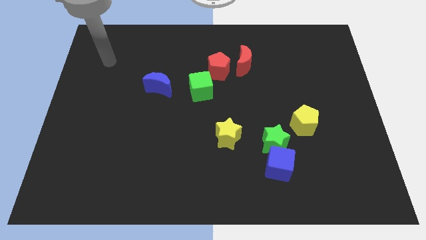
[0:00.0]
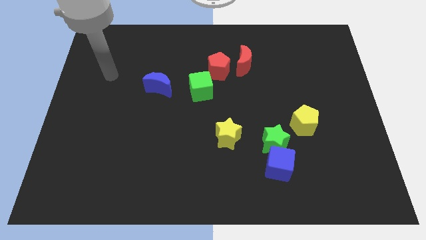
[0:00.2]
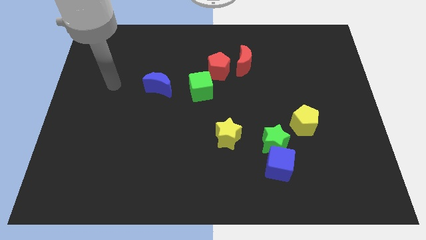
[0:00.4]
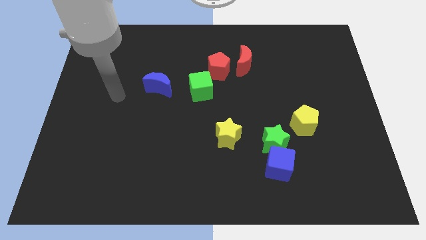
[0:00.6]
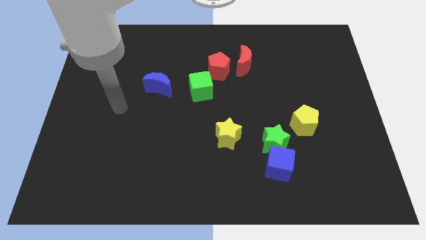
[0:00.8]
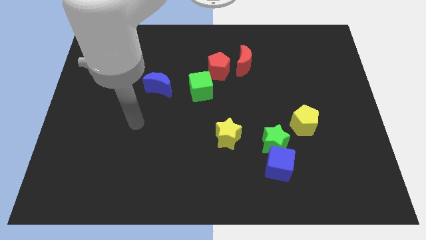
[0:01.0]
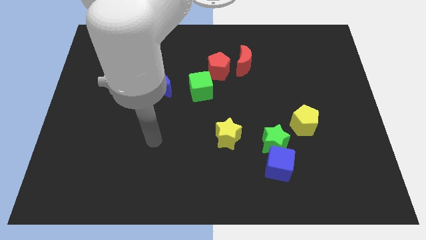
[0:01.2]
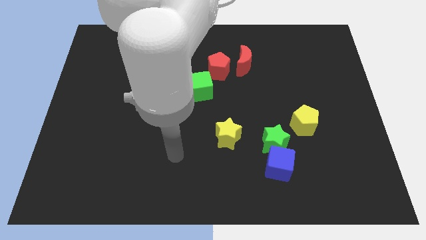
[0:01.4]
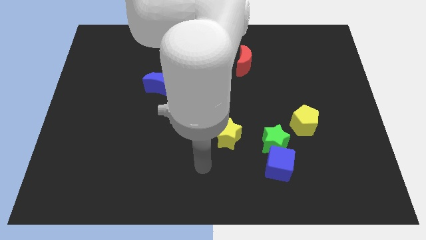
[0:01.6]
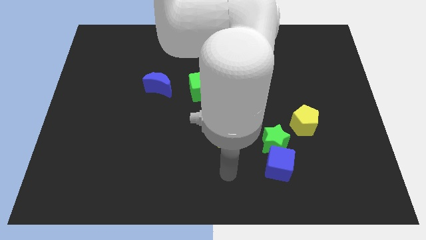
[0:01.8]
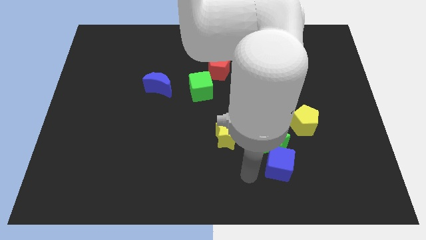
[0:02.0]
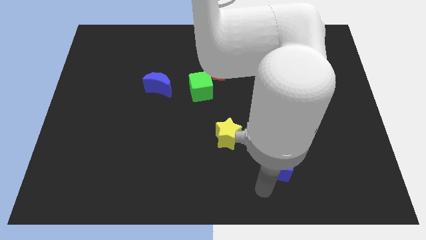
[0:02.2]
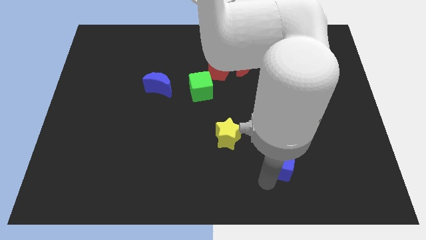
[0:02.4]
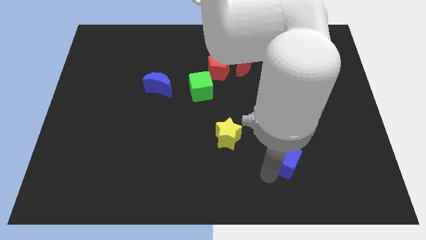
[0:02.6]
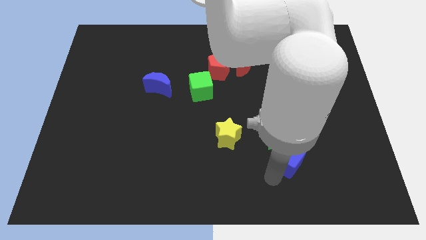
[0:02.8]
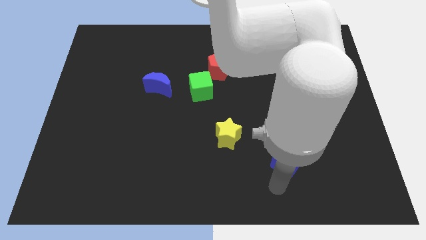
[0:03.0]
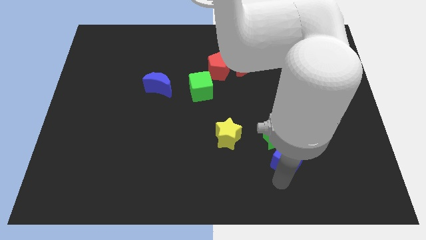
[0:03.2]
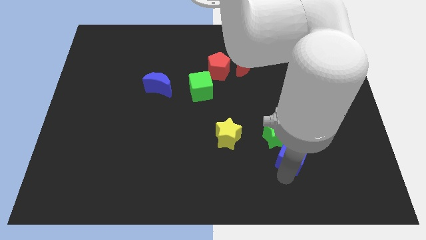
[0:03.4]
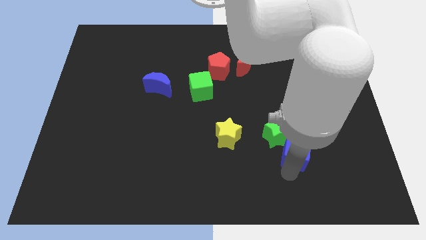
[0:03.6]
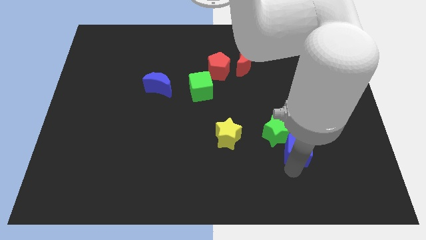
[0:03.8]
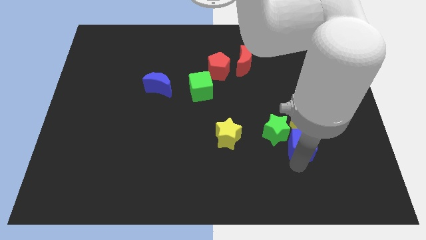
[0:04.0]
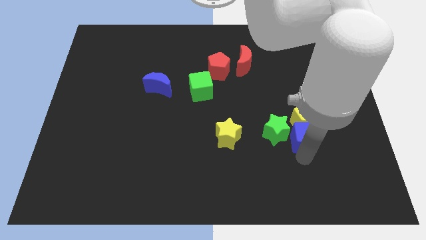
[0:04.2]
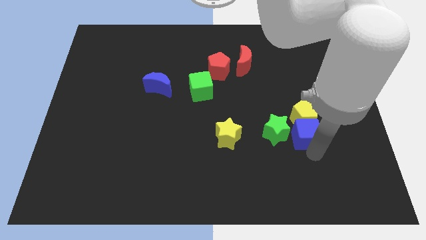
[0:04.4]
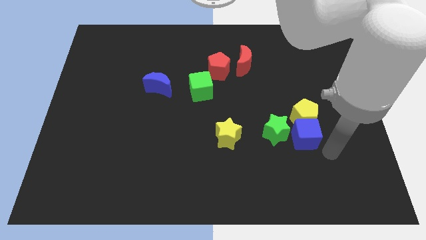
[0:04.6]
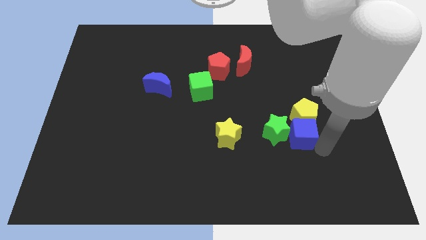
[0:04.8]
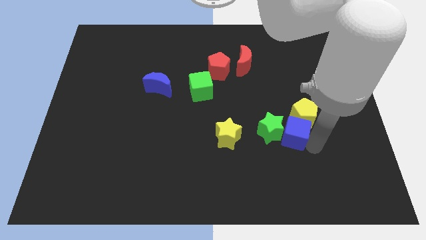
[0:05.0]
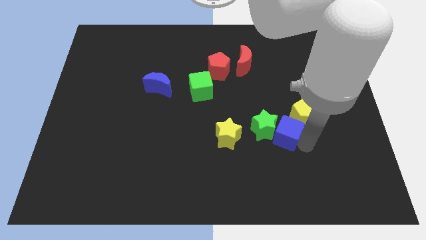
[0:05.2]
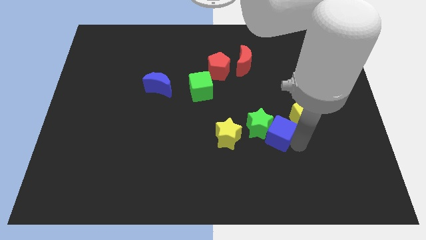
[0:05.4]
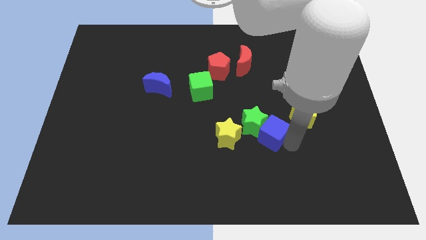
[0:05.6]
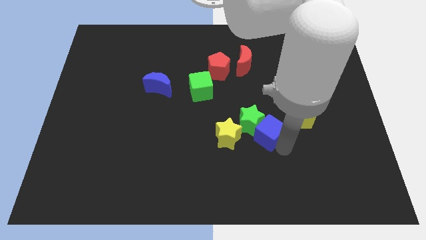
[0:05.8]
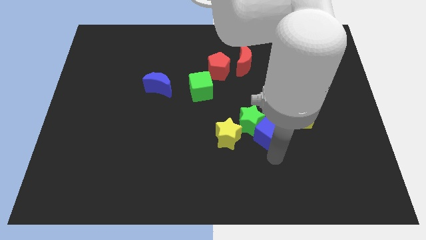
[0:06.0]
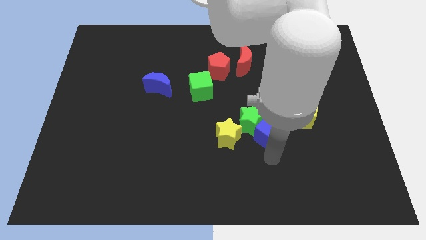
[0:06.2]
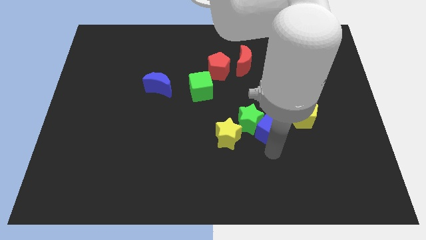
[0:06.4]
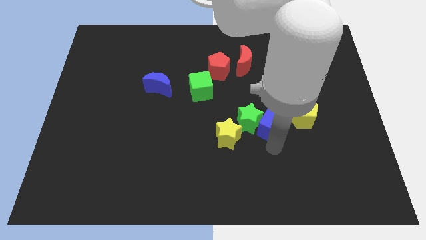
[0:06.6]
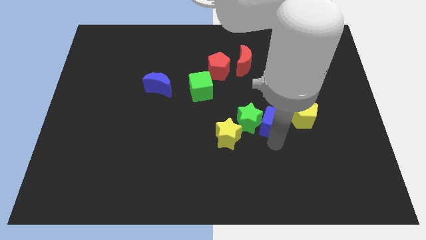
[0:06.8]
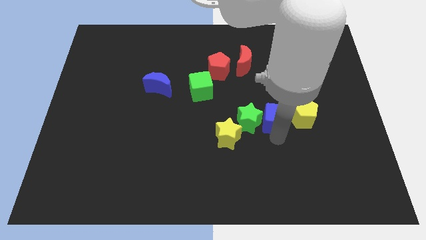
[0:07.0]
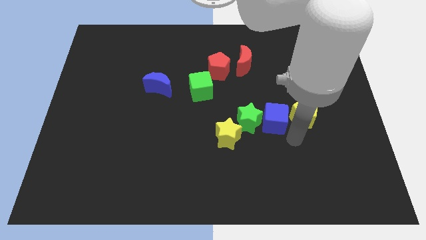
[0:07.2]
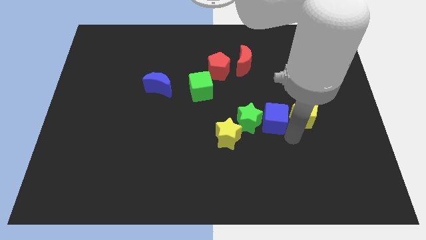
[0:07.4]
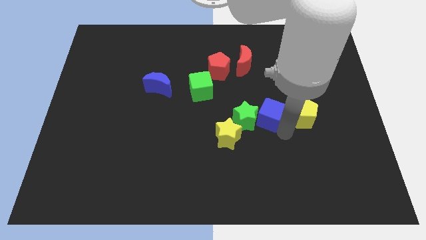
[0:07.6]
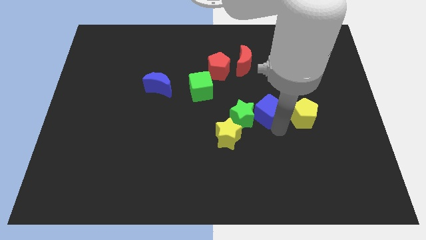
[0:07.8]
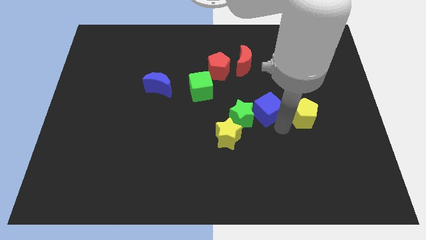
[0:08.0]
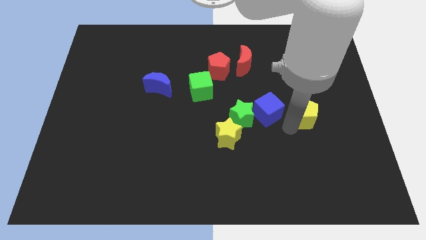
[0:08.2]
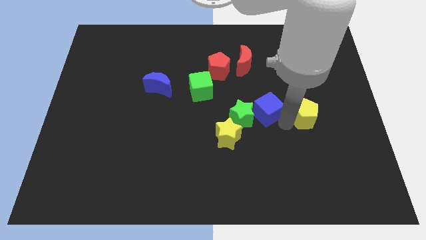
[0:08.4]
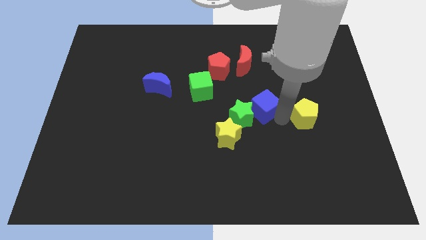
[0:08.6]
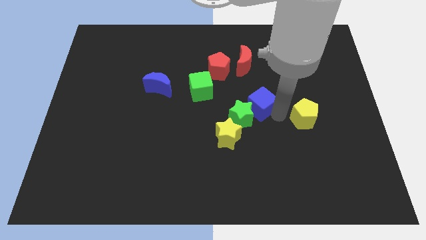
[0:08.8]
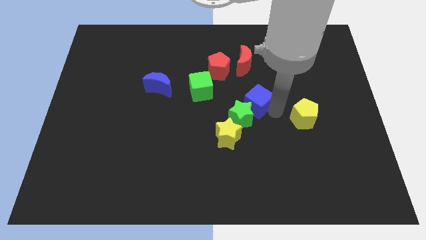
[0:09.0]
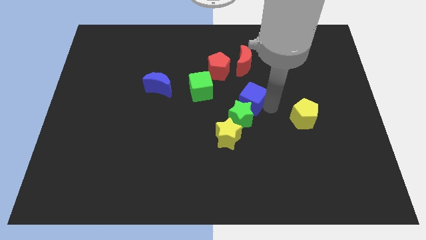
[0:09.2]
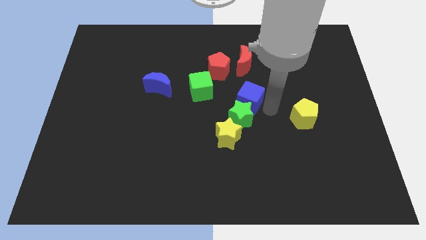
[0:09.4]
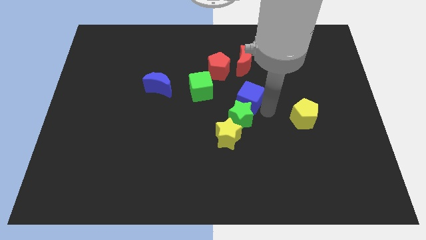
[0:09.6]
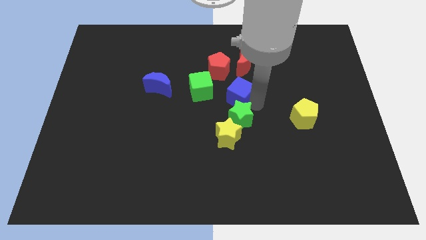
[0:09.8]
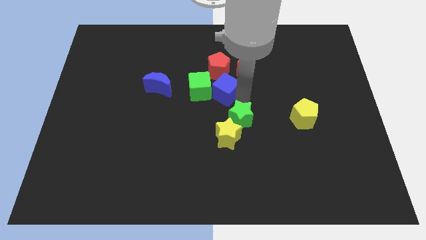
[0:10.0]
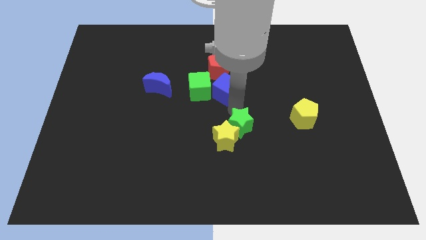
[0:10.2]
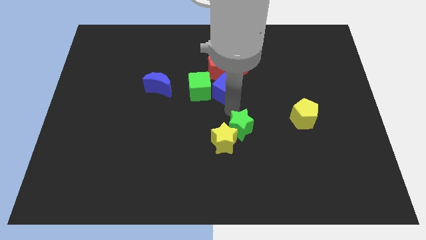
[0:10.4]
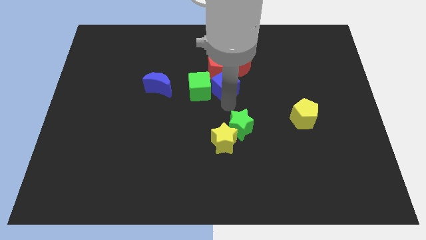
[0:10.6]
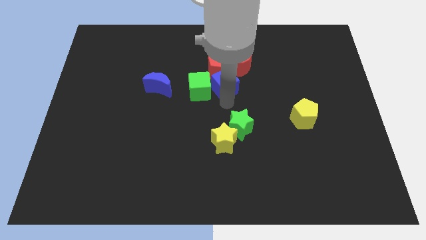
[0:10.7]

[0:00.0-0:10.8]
push the blue cube close to the red pentagon

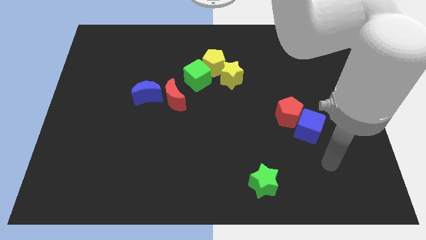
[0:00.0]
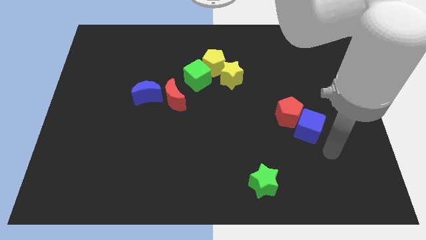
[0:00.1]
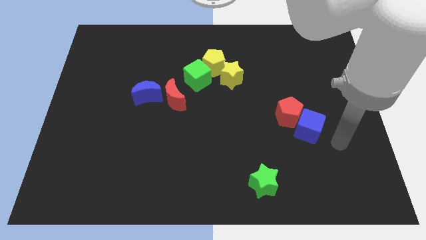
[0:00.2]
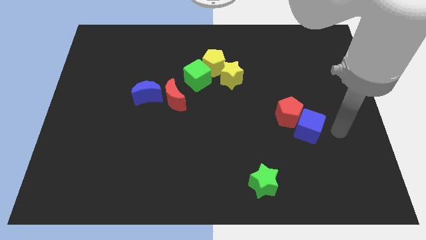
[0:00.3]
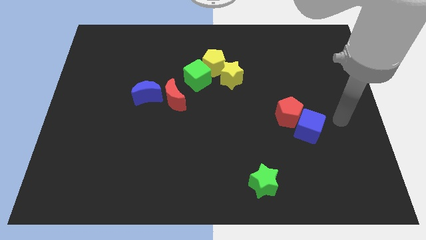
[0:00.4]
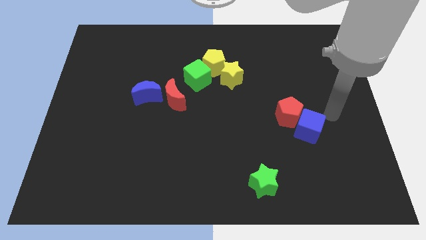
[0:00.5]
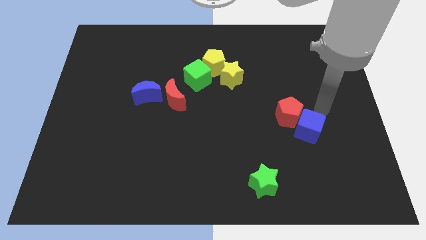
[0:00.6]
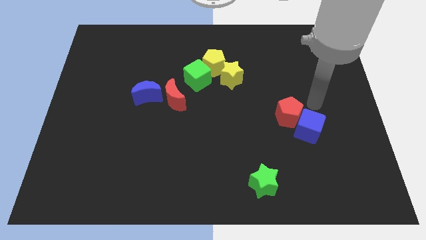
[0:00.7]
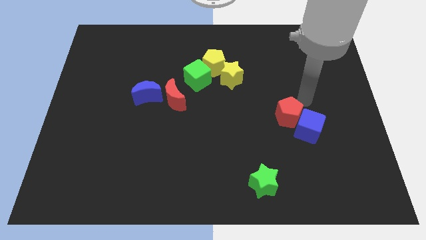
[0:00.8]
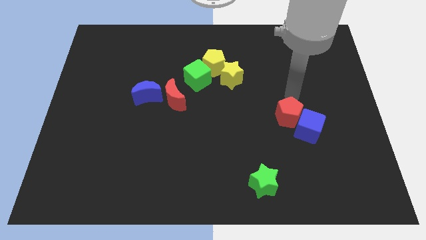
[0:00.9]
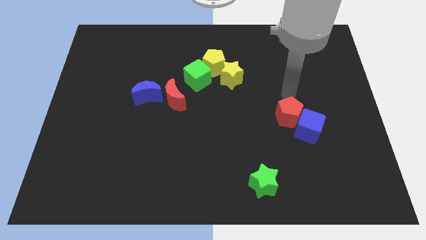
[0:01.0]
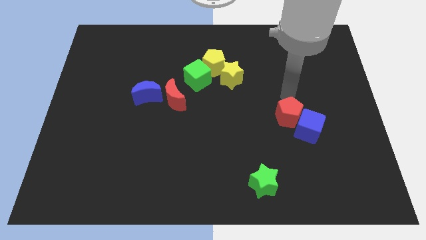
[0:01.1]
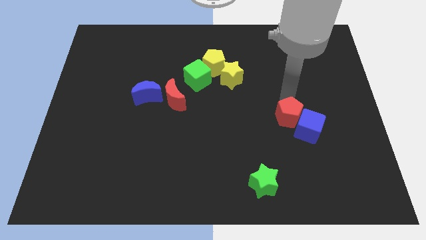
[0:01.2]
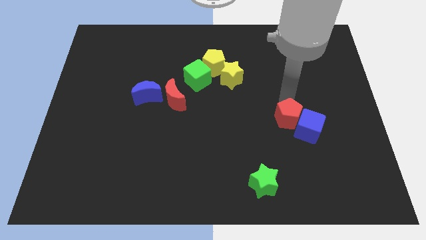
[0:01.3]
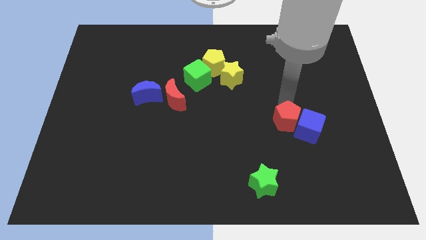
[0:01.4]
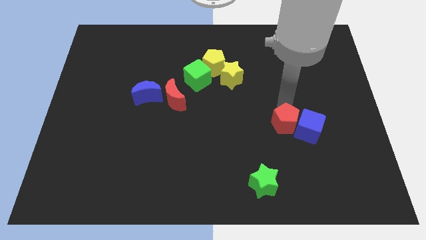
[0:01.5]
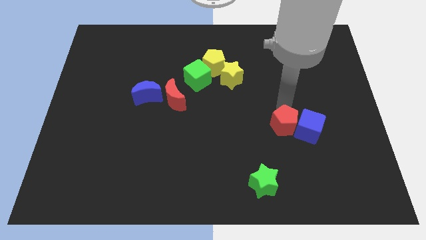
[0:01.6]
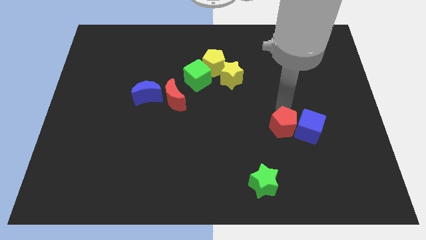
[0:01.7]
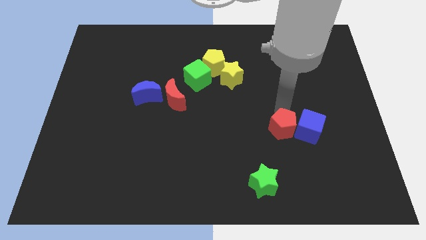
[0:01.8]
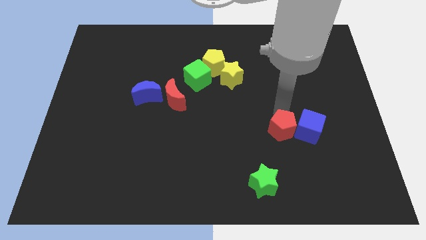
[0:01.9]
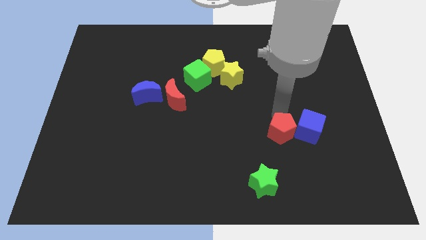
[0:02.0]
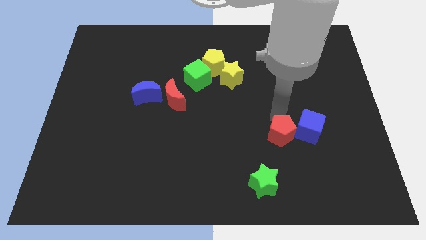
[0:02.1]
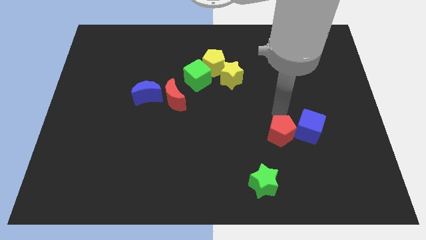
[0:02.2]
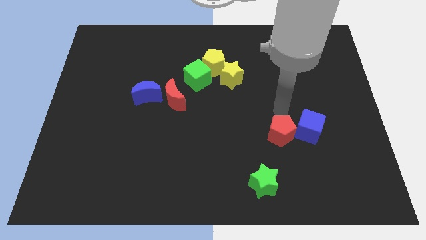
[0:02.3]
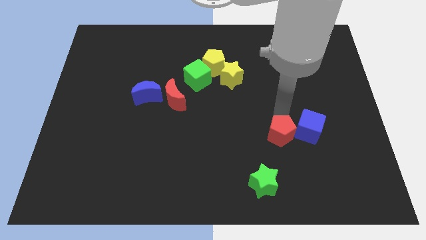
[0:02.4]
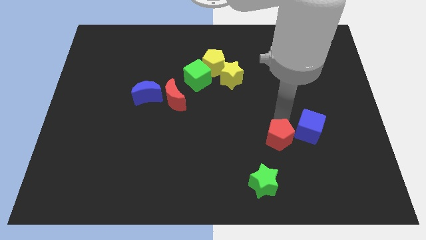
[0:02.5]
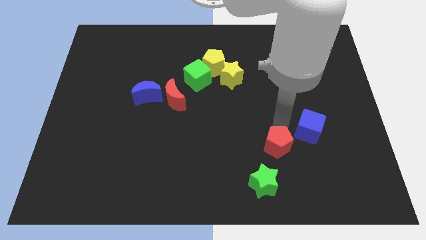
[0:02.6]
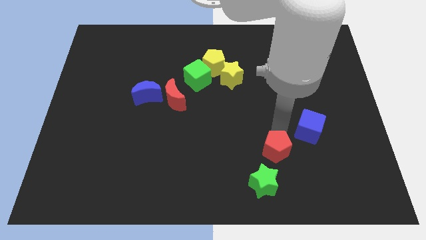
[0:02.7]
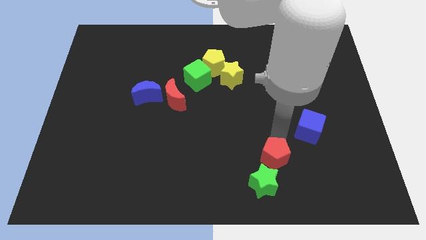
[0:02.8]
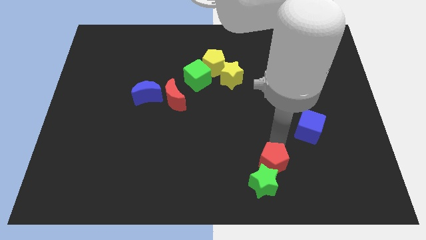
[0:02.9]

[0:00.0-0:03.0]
move the red pentagon to the green star
